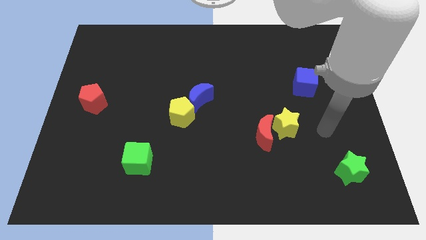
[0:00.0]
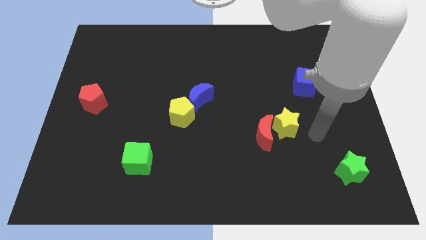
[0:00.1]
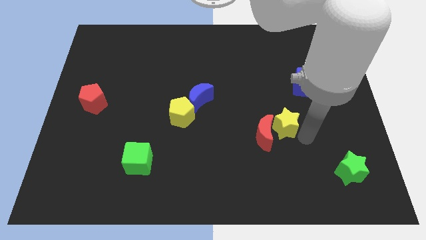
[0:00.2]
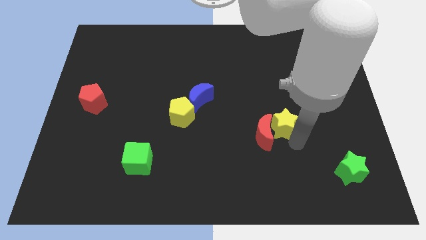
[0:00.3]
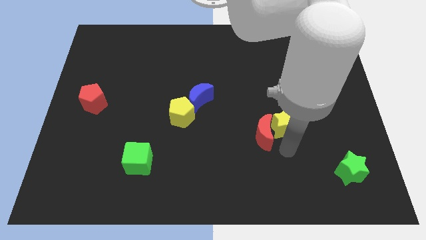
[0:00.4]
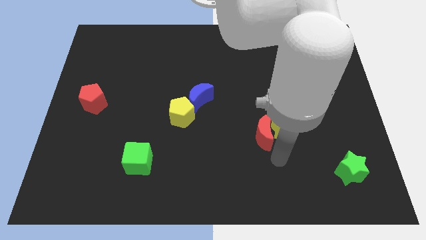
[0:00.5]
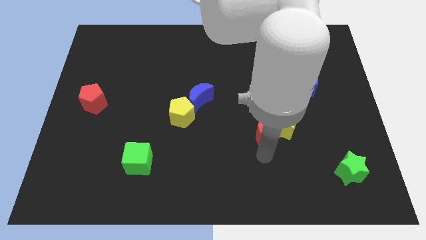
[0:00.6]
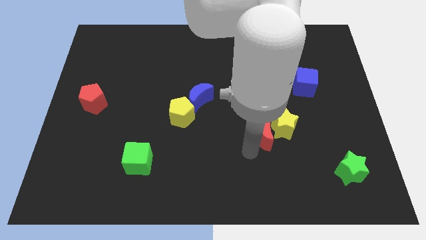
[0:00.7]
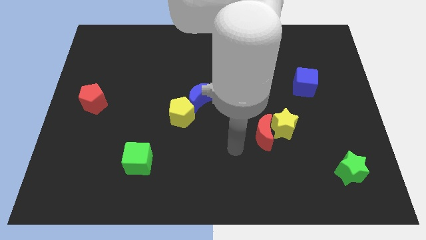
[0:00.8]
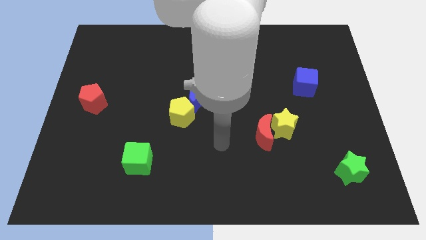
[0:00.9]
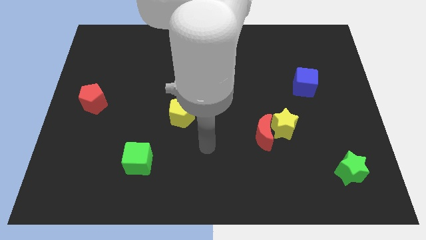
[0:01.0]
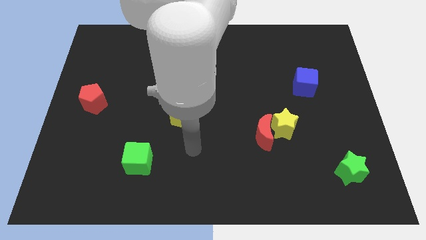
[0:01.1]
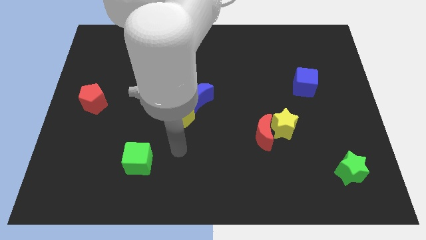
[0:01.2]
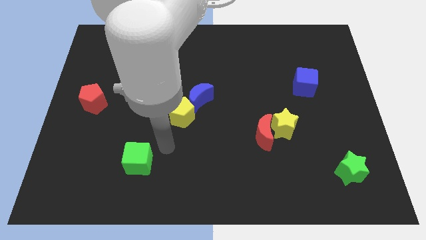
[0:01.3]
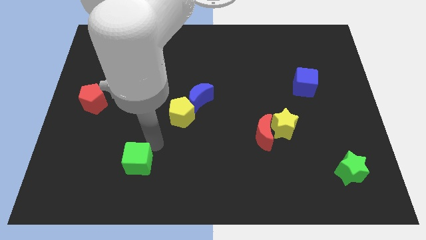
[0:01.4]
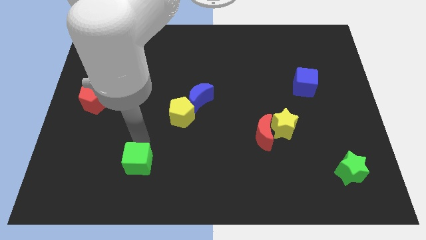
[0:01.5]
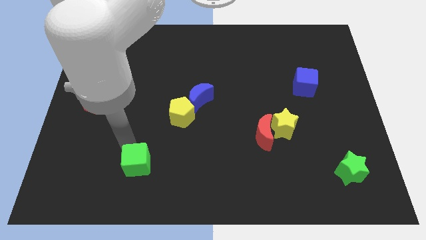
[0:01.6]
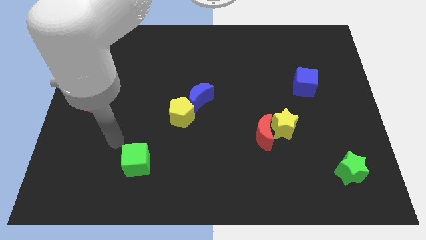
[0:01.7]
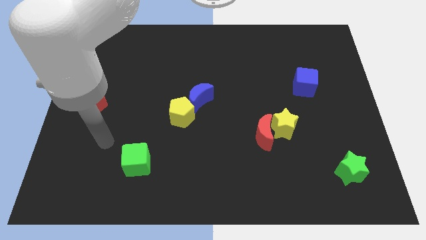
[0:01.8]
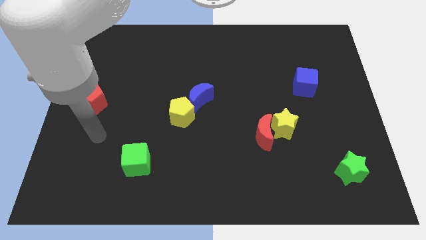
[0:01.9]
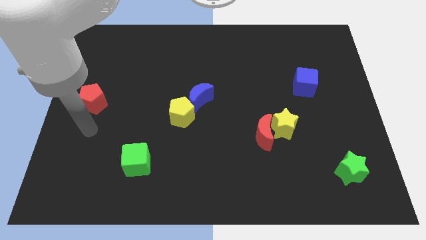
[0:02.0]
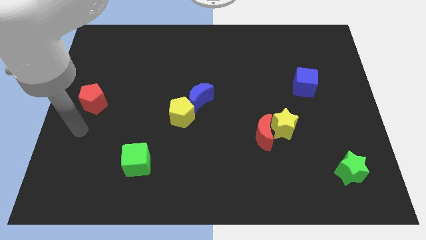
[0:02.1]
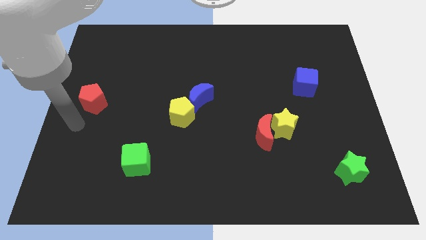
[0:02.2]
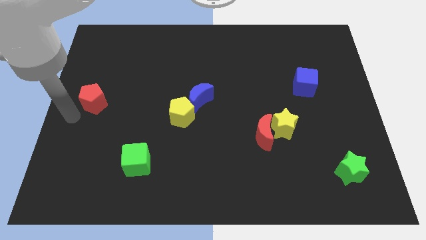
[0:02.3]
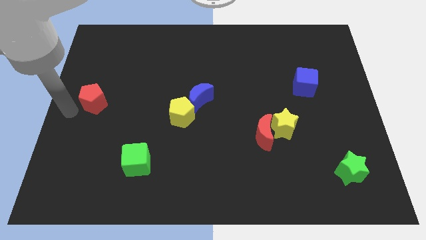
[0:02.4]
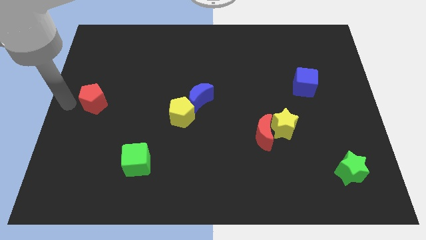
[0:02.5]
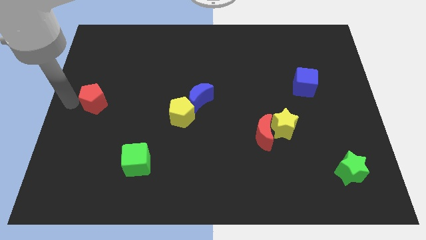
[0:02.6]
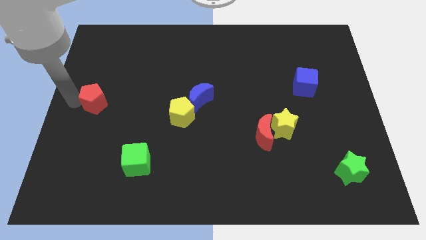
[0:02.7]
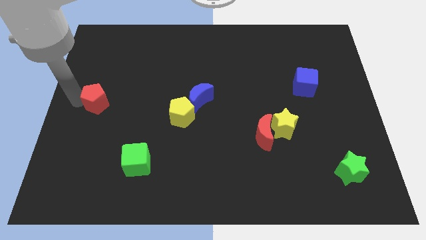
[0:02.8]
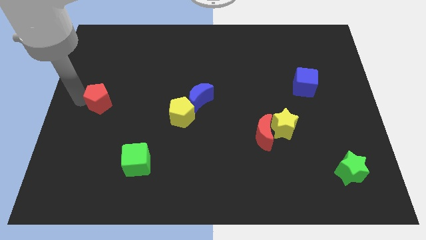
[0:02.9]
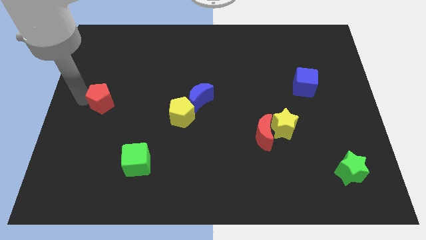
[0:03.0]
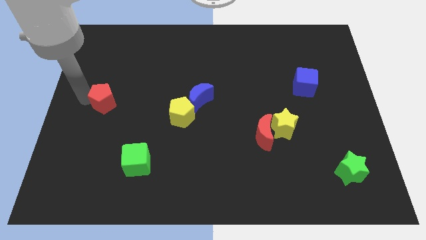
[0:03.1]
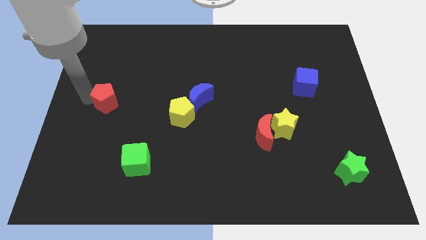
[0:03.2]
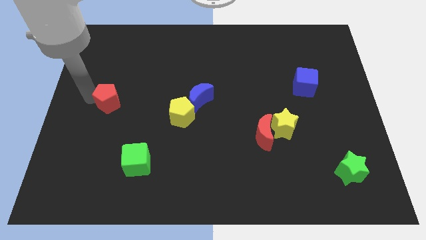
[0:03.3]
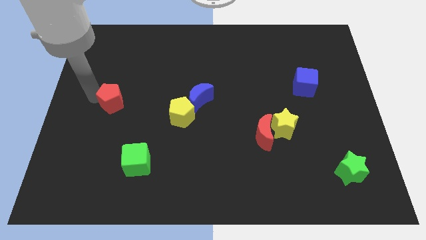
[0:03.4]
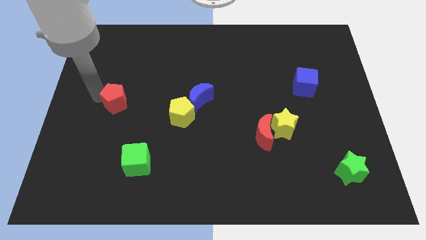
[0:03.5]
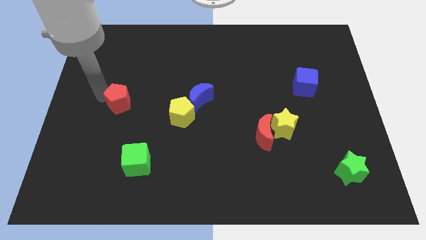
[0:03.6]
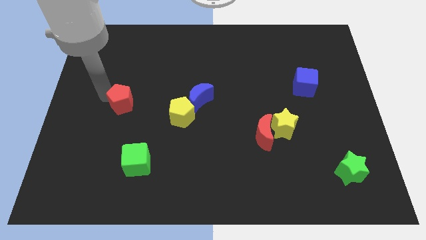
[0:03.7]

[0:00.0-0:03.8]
push the red pentagon right somewhat

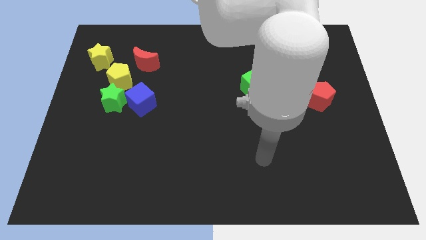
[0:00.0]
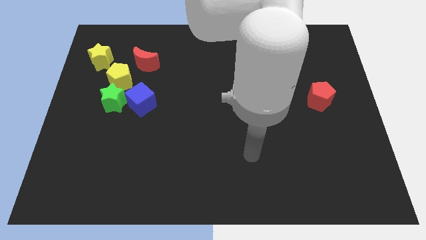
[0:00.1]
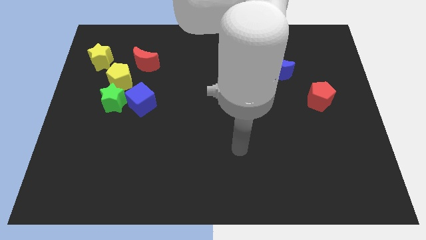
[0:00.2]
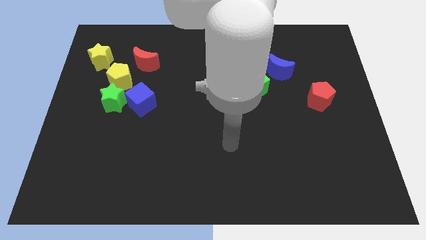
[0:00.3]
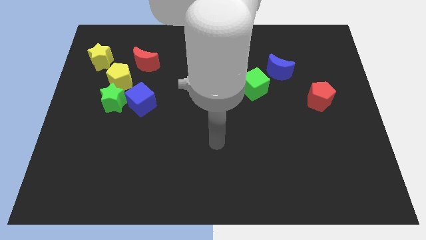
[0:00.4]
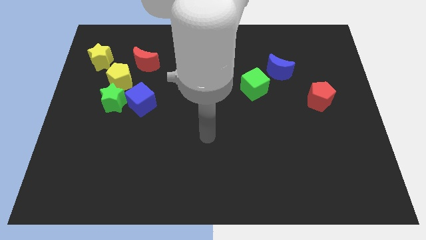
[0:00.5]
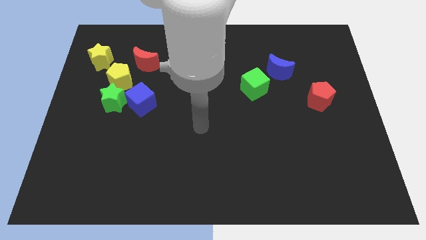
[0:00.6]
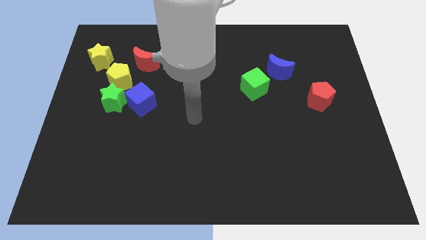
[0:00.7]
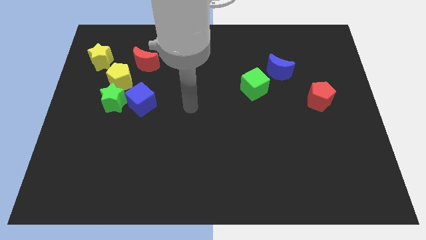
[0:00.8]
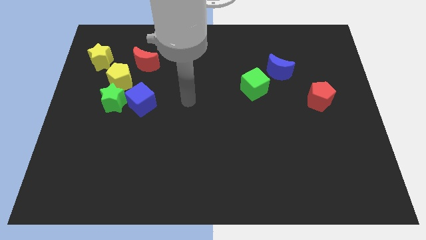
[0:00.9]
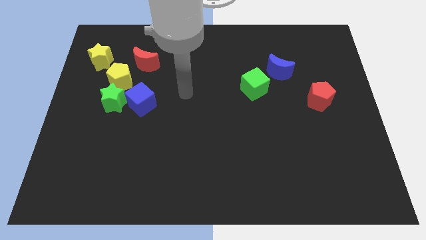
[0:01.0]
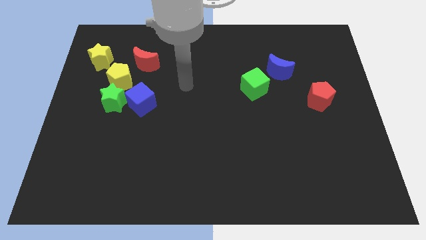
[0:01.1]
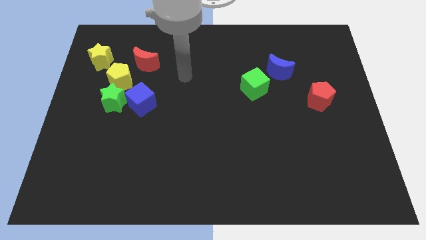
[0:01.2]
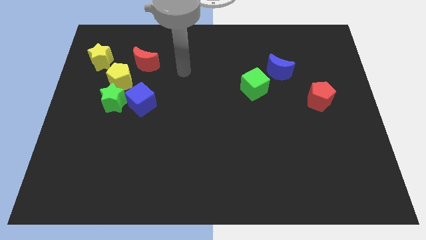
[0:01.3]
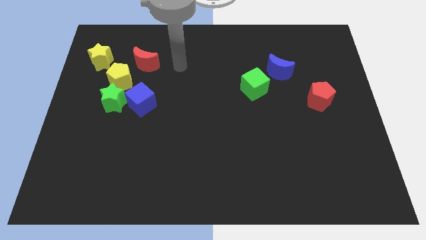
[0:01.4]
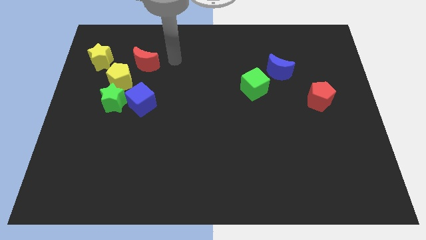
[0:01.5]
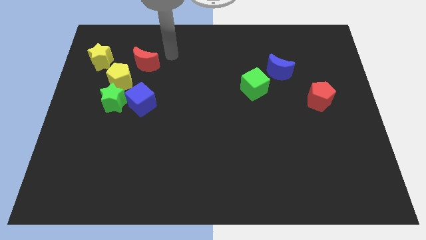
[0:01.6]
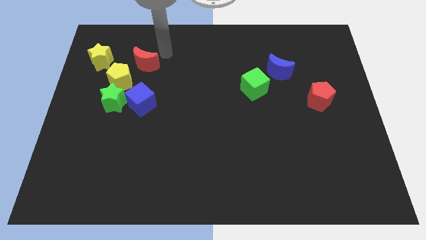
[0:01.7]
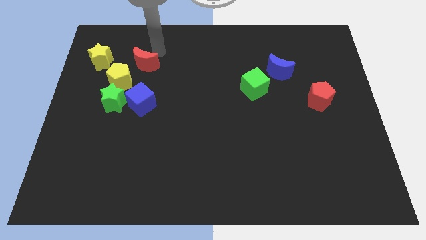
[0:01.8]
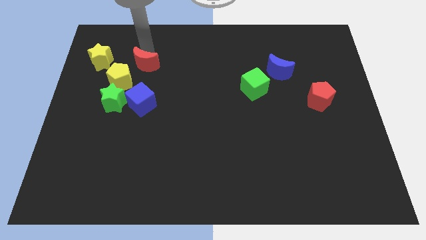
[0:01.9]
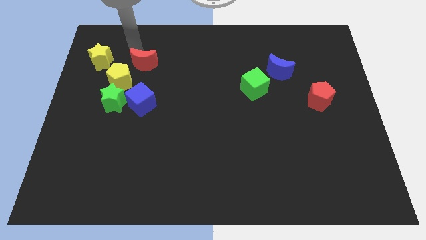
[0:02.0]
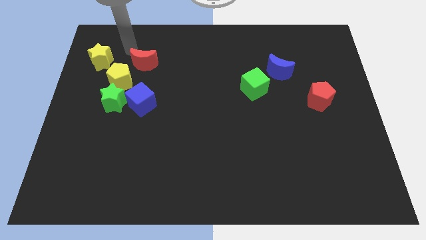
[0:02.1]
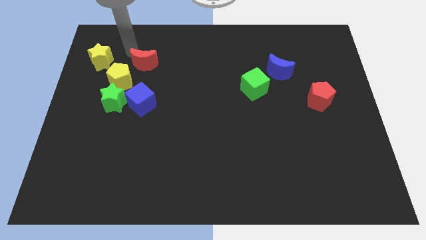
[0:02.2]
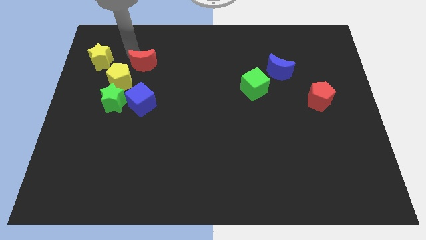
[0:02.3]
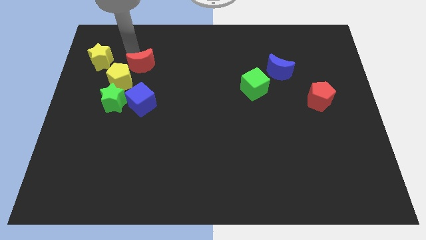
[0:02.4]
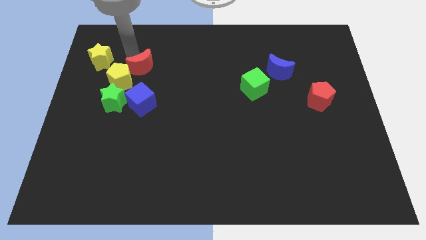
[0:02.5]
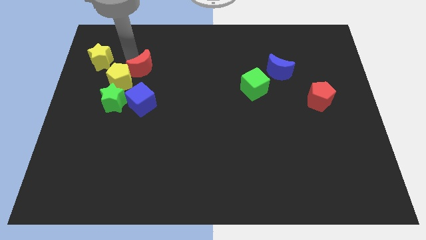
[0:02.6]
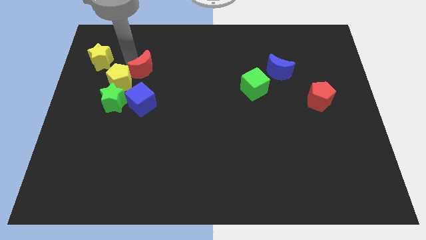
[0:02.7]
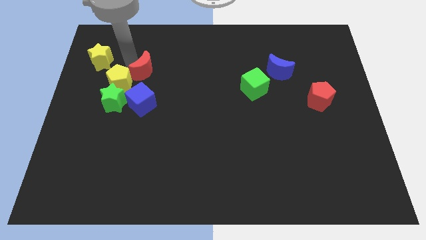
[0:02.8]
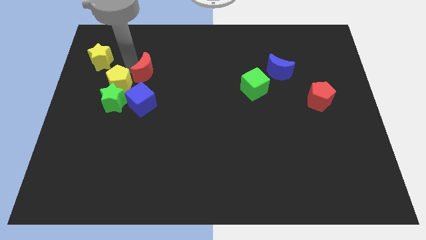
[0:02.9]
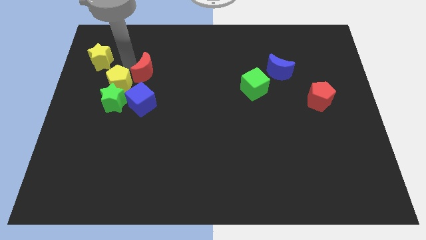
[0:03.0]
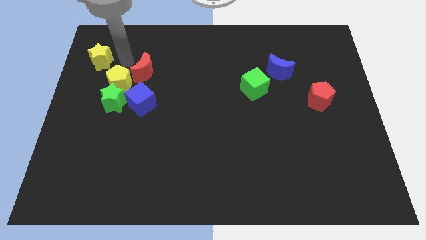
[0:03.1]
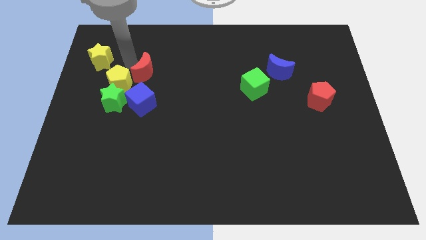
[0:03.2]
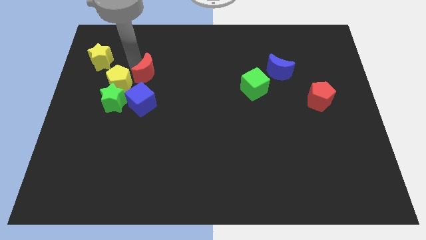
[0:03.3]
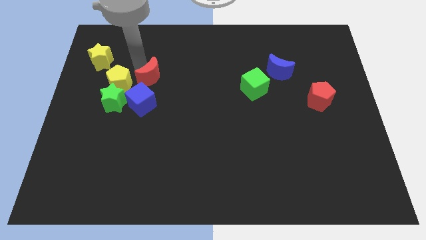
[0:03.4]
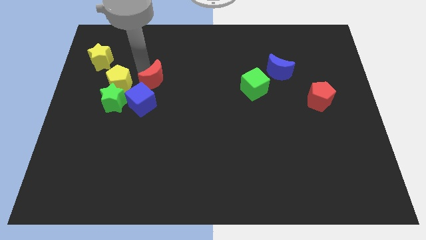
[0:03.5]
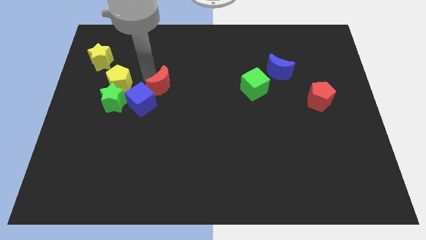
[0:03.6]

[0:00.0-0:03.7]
slightly slide the red moon diagonally down and to the right

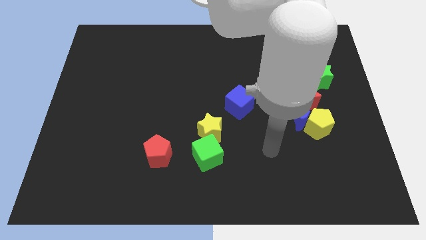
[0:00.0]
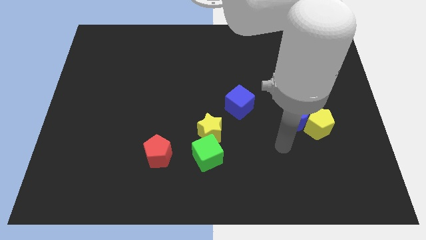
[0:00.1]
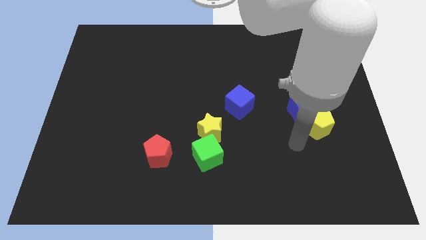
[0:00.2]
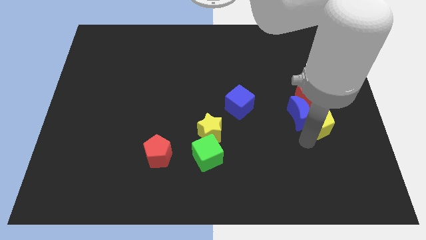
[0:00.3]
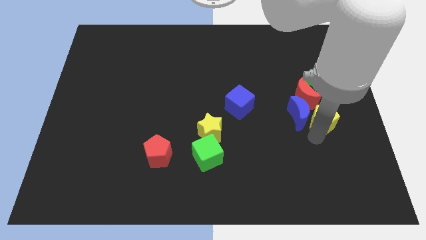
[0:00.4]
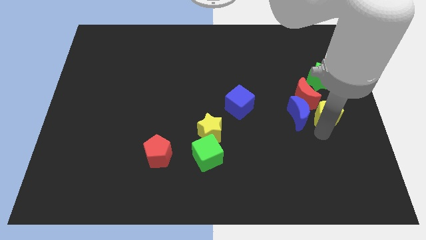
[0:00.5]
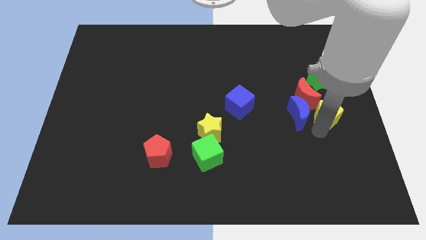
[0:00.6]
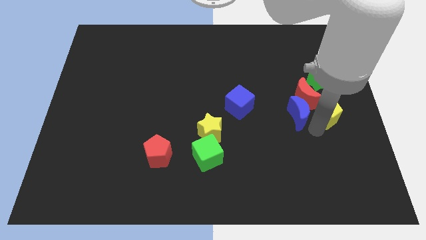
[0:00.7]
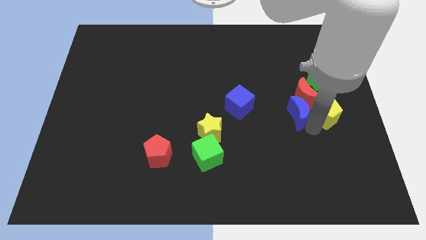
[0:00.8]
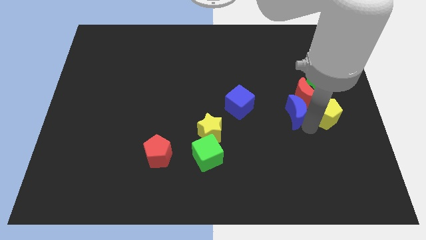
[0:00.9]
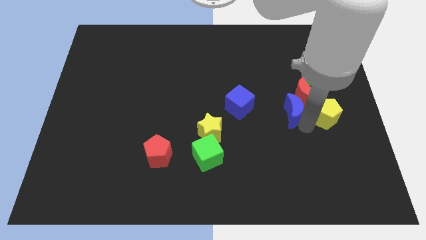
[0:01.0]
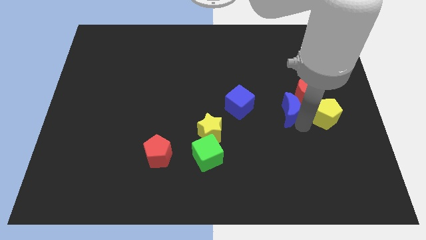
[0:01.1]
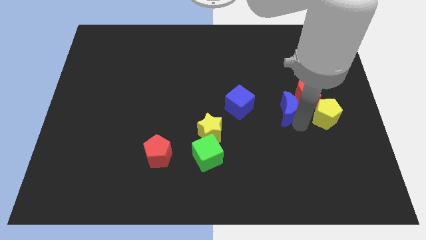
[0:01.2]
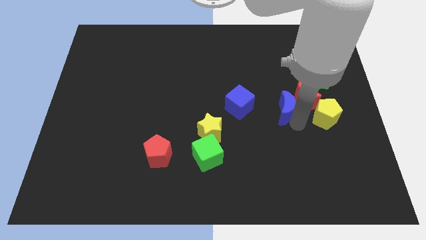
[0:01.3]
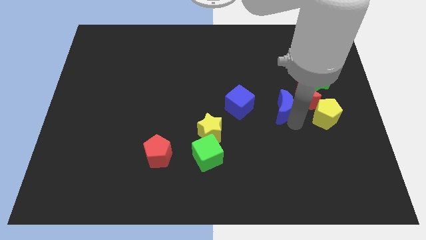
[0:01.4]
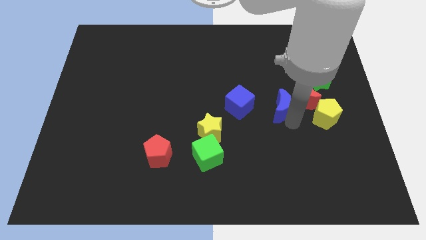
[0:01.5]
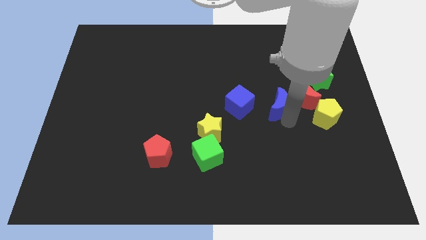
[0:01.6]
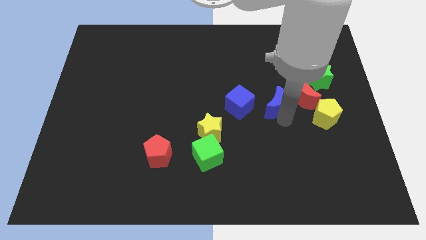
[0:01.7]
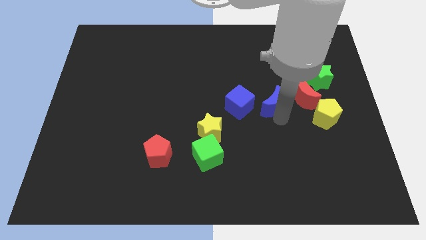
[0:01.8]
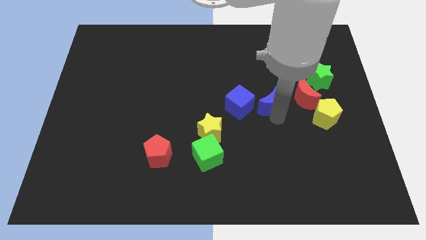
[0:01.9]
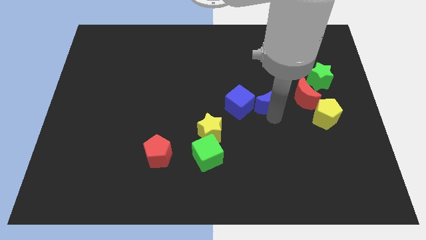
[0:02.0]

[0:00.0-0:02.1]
slightly move the blue moon up and then to the left
